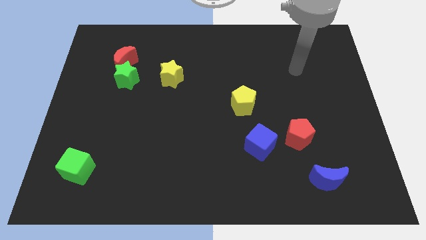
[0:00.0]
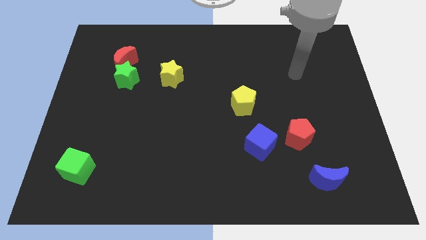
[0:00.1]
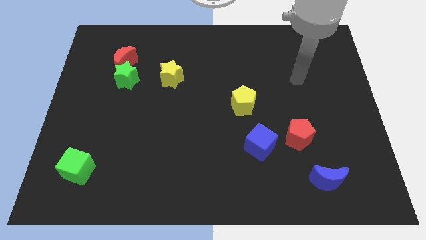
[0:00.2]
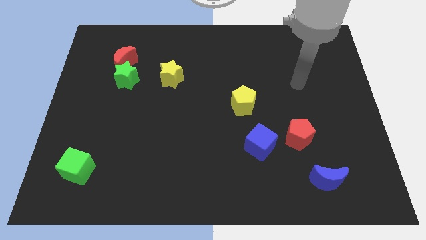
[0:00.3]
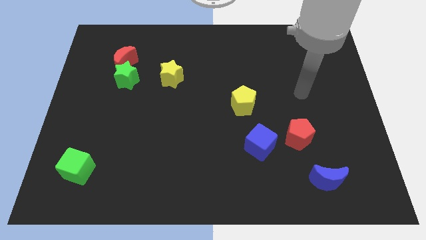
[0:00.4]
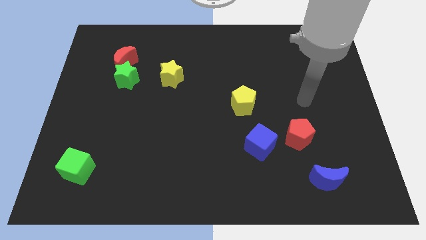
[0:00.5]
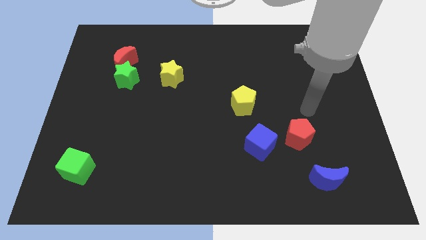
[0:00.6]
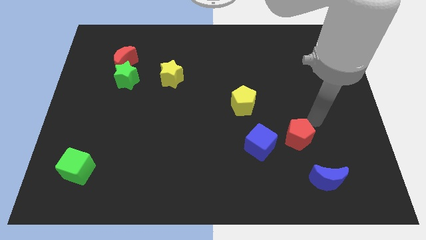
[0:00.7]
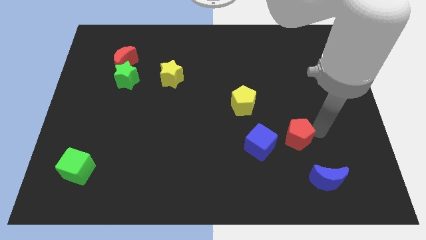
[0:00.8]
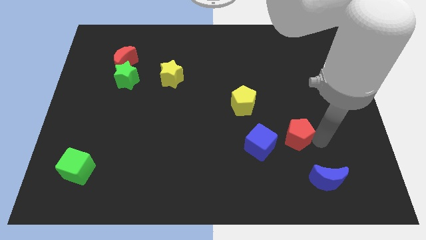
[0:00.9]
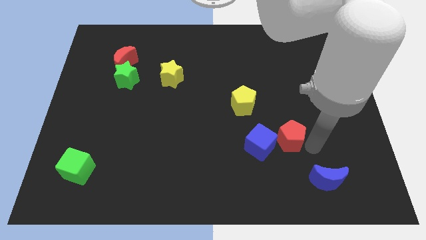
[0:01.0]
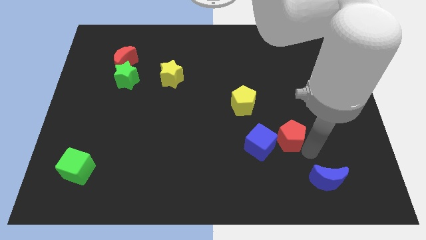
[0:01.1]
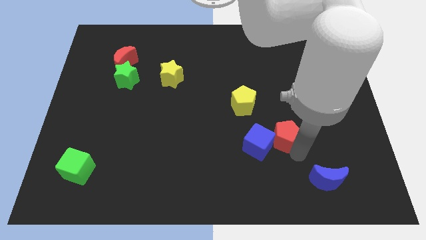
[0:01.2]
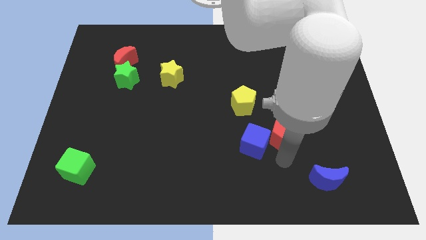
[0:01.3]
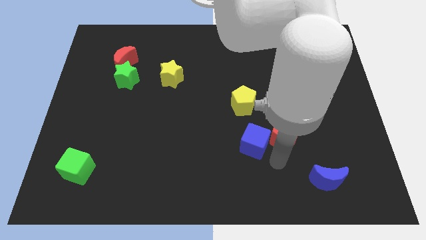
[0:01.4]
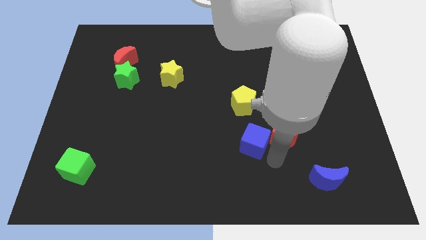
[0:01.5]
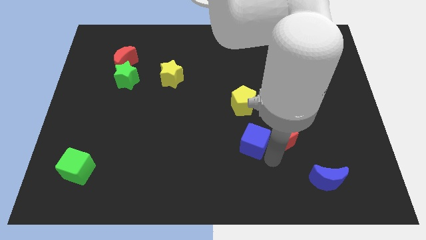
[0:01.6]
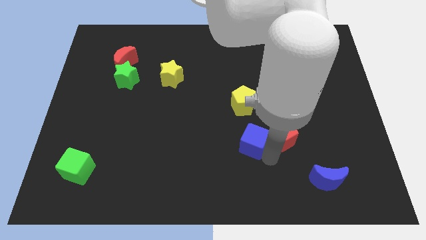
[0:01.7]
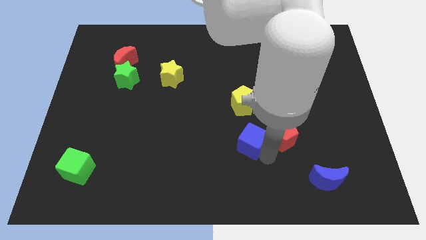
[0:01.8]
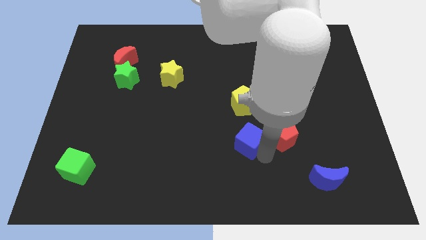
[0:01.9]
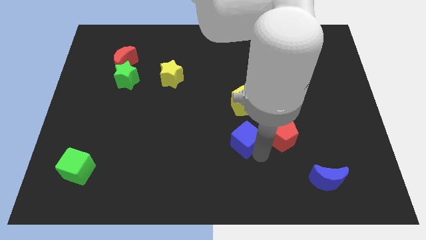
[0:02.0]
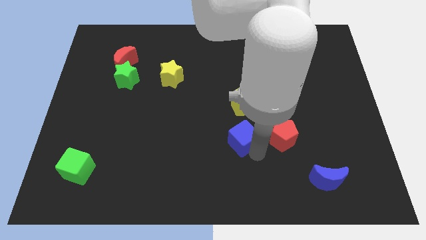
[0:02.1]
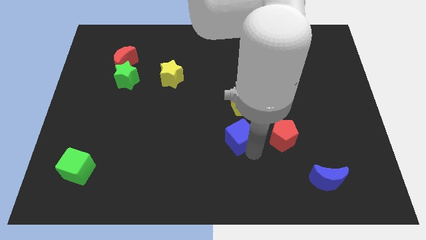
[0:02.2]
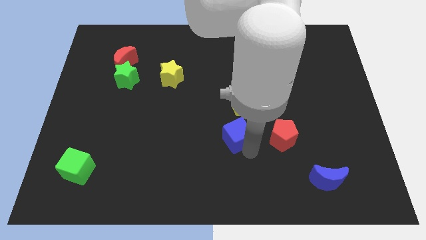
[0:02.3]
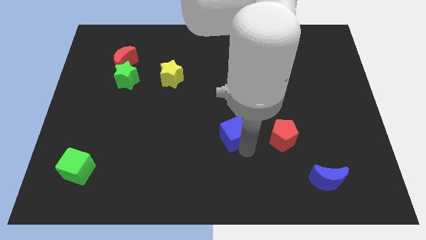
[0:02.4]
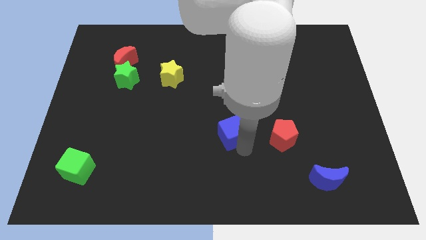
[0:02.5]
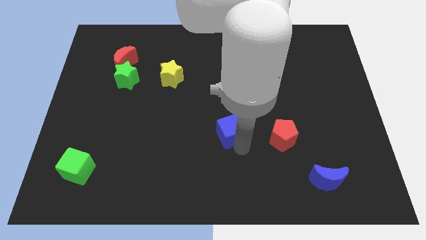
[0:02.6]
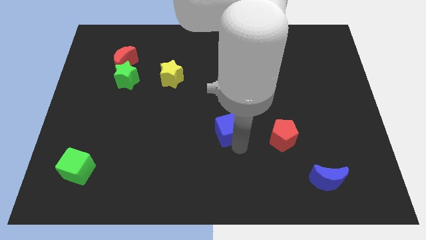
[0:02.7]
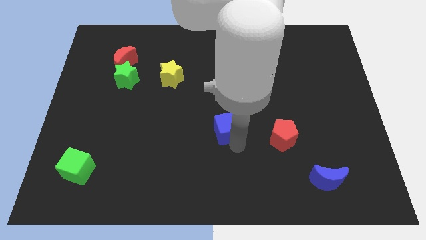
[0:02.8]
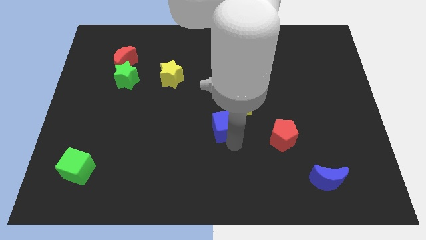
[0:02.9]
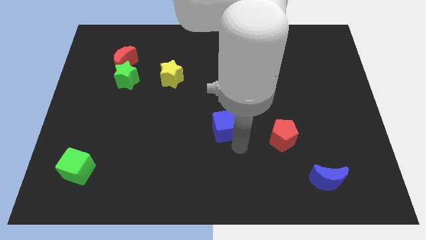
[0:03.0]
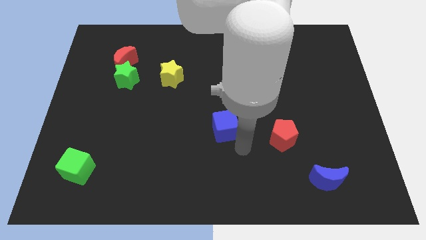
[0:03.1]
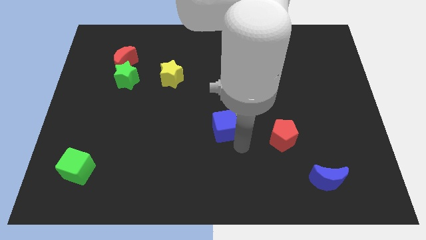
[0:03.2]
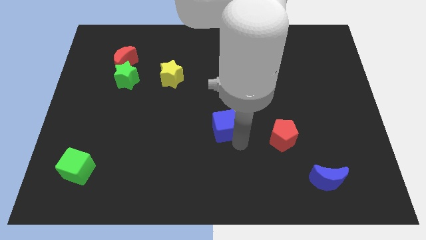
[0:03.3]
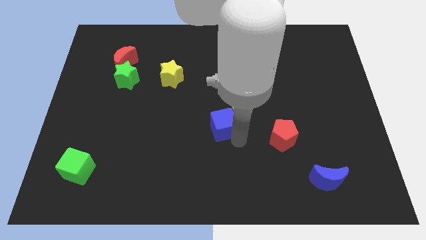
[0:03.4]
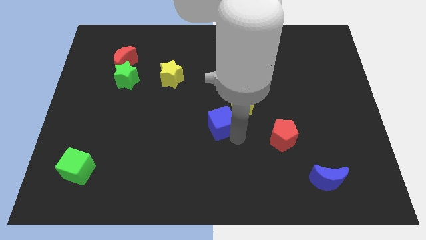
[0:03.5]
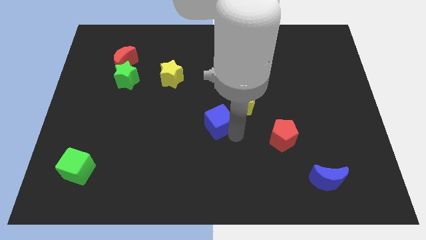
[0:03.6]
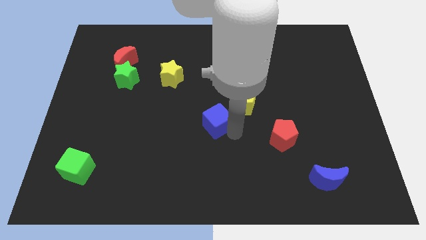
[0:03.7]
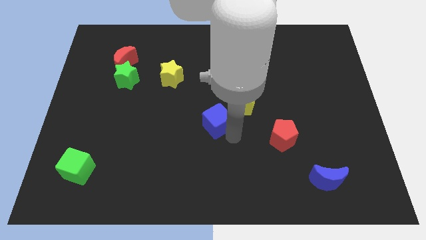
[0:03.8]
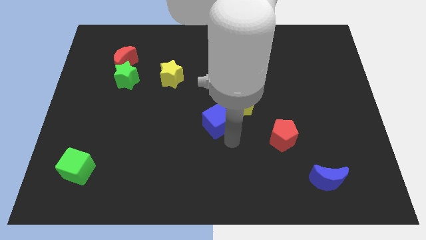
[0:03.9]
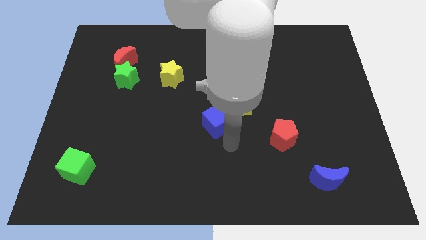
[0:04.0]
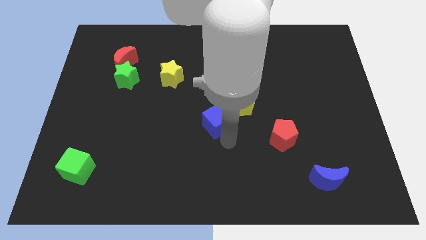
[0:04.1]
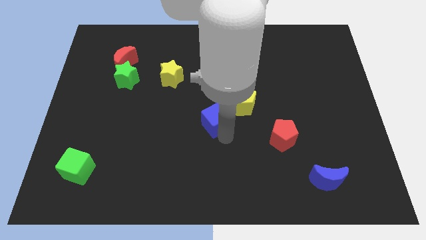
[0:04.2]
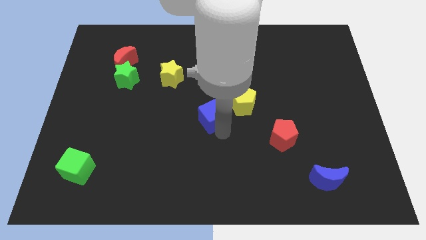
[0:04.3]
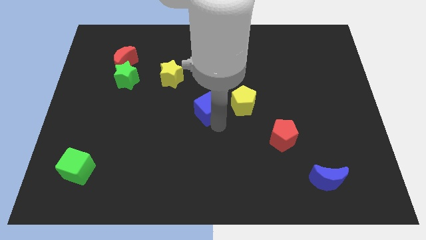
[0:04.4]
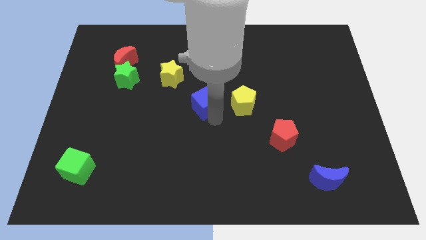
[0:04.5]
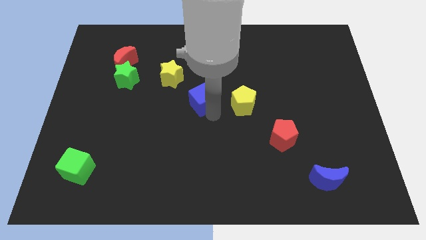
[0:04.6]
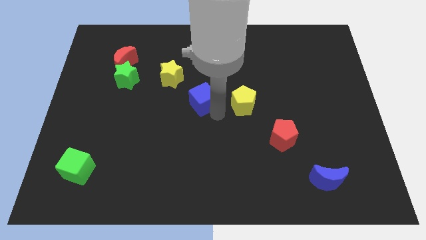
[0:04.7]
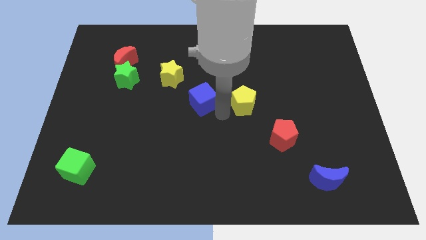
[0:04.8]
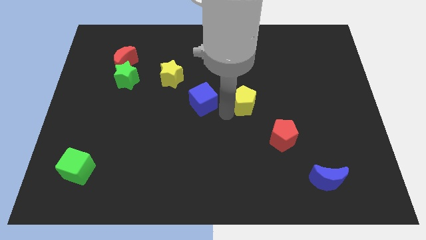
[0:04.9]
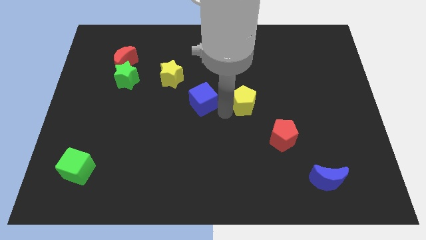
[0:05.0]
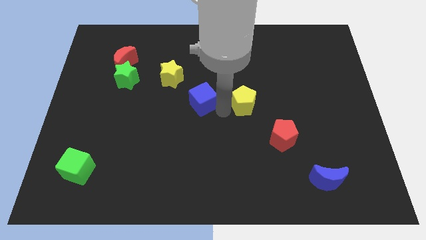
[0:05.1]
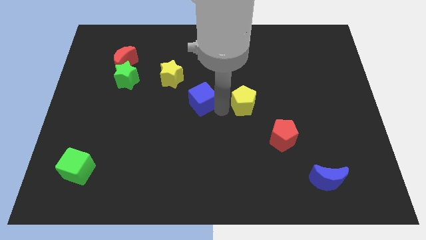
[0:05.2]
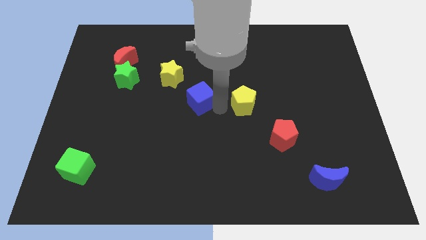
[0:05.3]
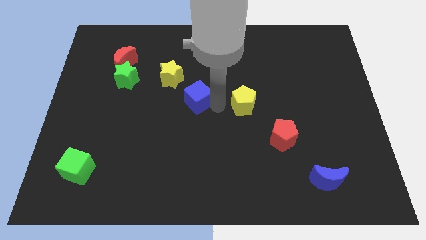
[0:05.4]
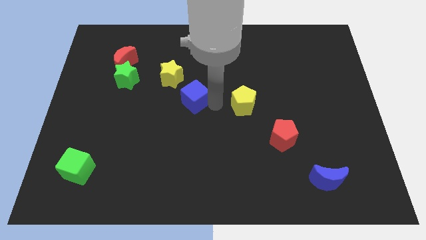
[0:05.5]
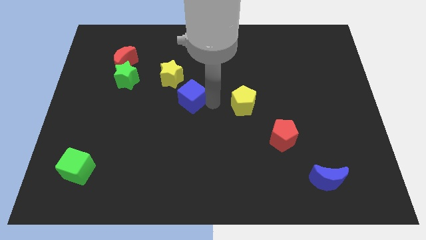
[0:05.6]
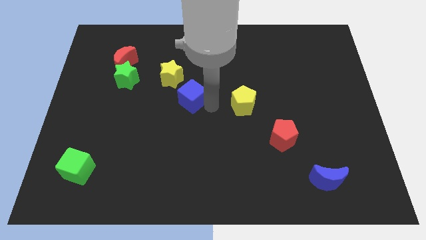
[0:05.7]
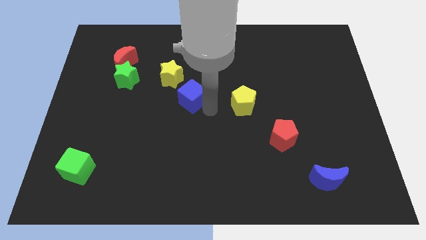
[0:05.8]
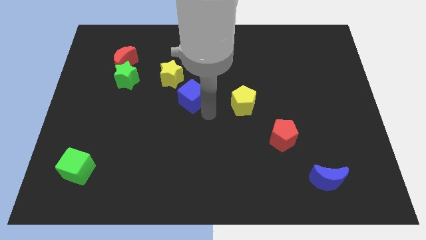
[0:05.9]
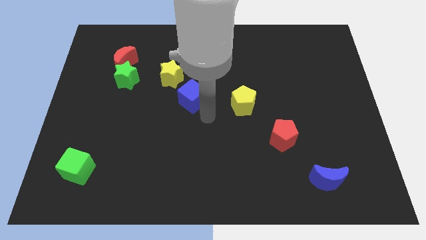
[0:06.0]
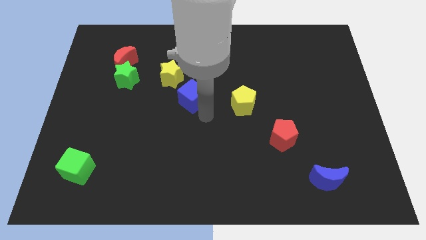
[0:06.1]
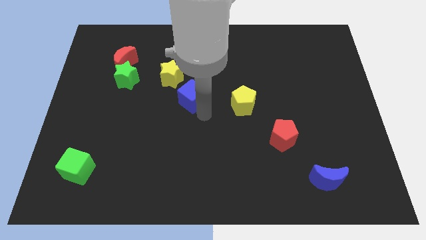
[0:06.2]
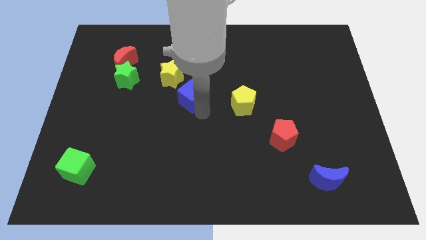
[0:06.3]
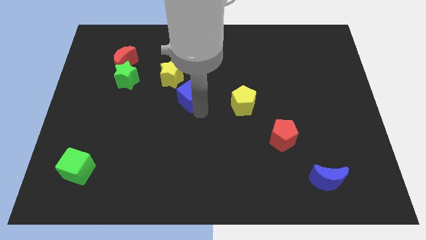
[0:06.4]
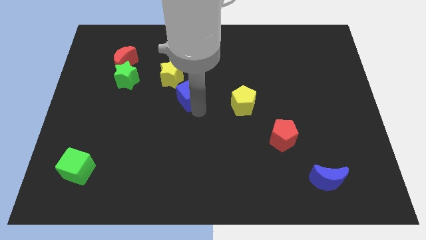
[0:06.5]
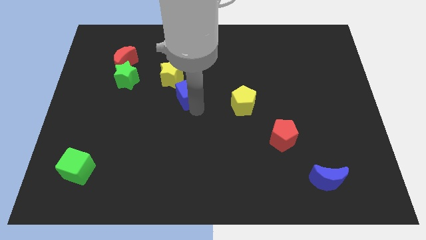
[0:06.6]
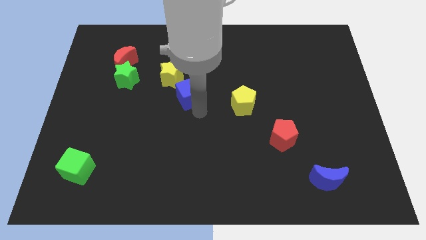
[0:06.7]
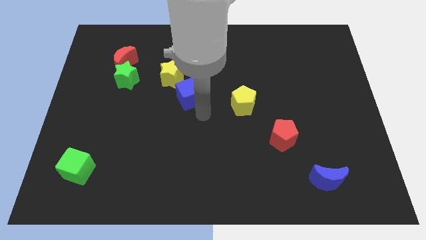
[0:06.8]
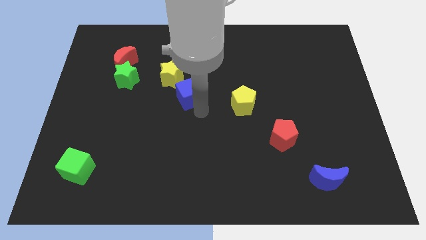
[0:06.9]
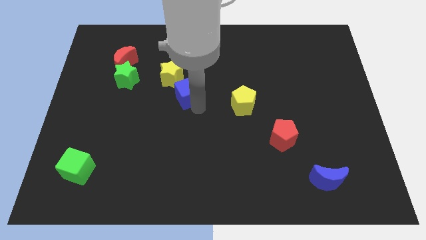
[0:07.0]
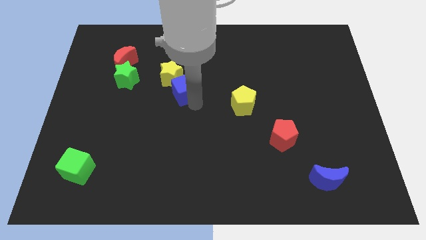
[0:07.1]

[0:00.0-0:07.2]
put the blue cube to the yellow star
